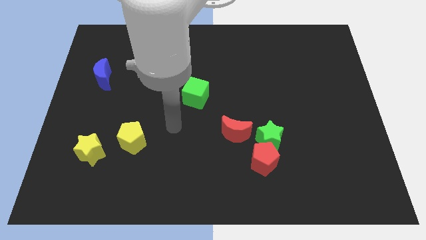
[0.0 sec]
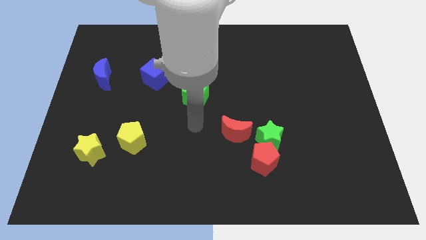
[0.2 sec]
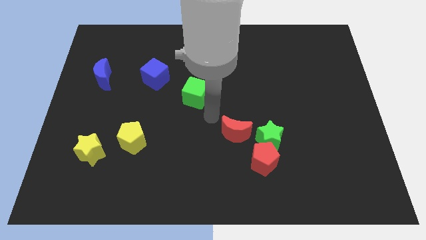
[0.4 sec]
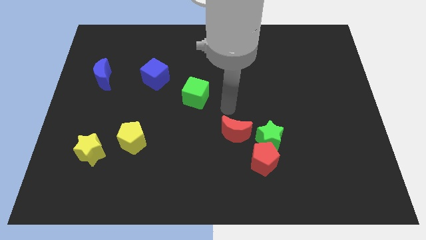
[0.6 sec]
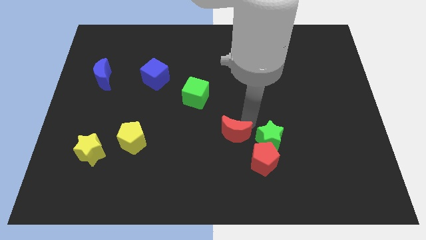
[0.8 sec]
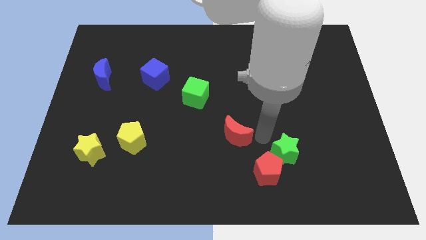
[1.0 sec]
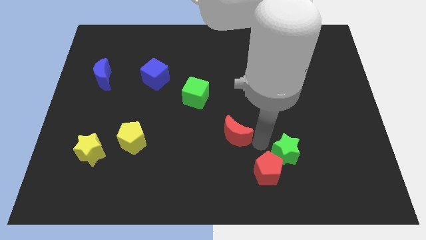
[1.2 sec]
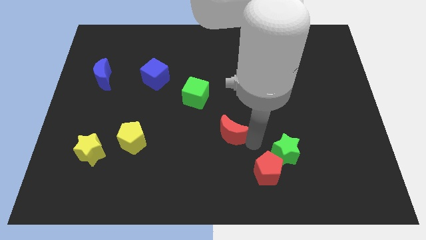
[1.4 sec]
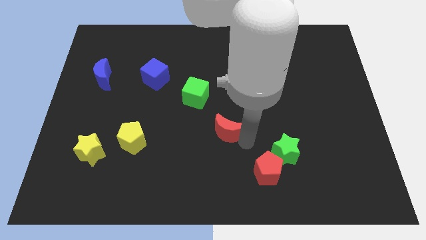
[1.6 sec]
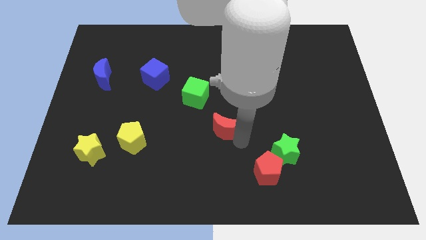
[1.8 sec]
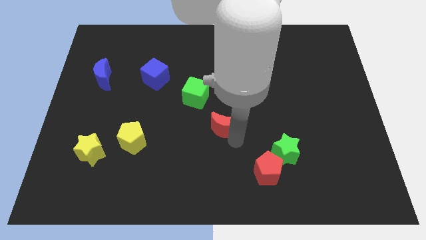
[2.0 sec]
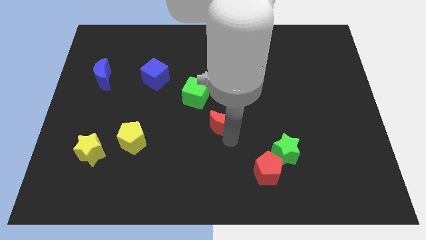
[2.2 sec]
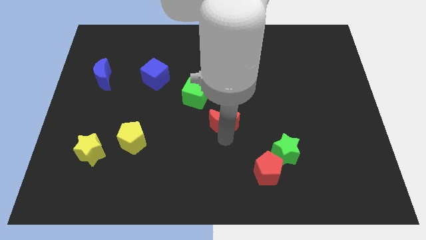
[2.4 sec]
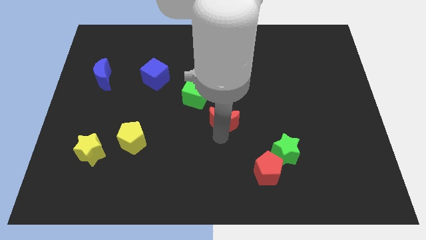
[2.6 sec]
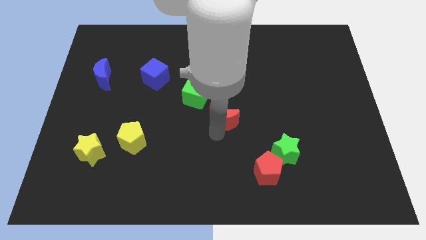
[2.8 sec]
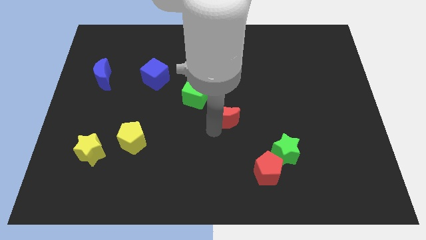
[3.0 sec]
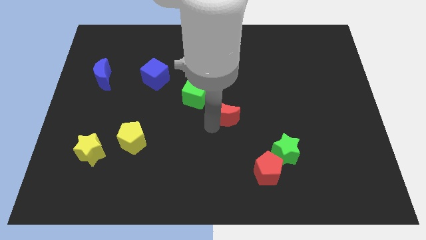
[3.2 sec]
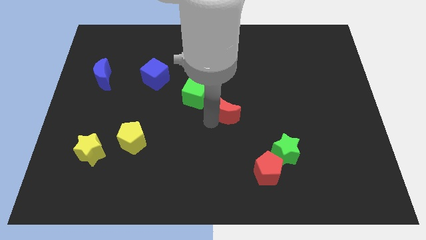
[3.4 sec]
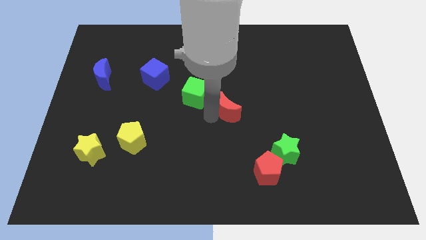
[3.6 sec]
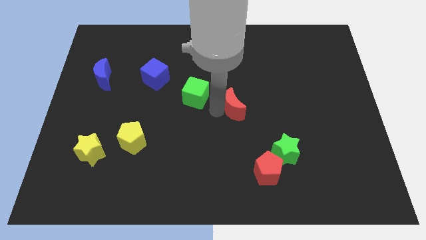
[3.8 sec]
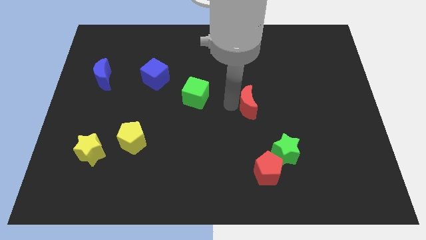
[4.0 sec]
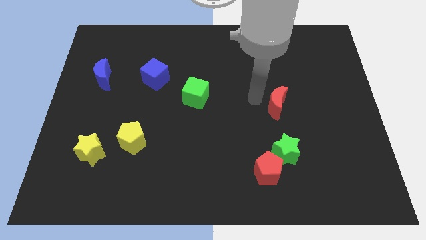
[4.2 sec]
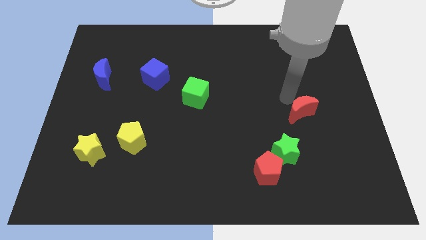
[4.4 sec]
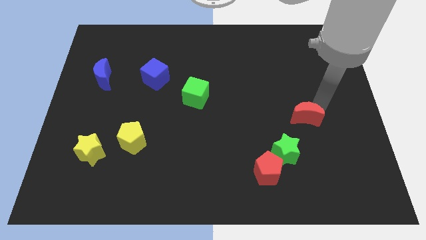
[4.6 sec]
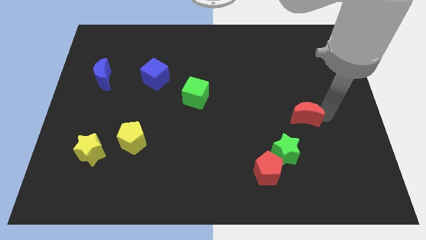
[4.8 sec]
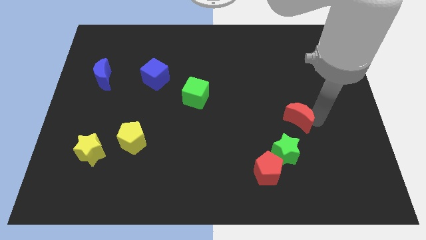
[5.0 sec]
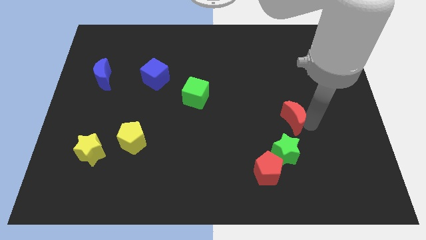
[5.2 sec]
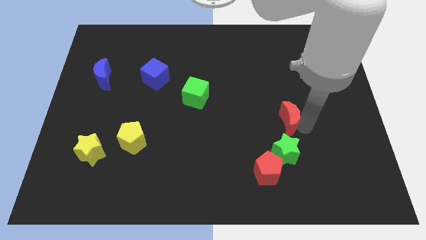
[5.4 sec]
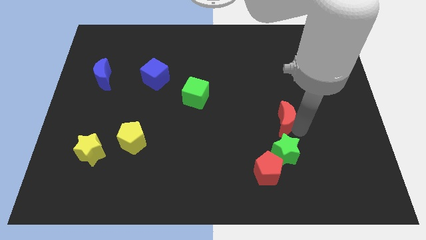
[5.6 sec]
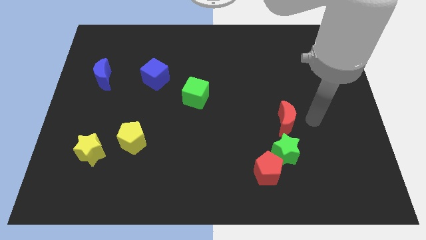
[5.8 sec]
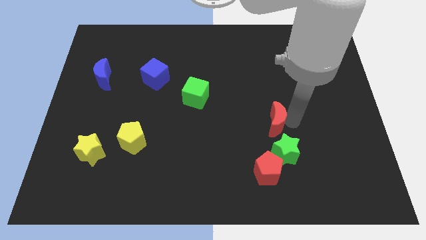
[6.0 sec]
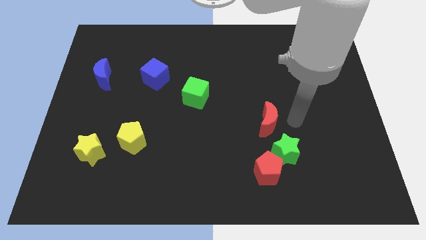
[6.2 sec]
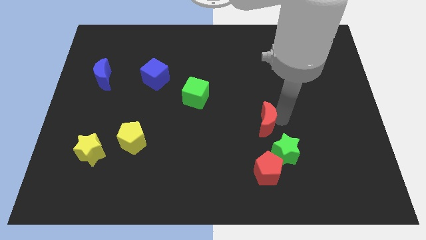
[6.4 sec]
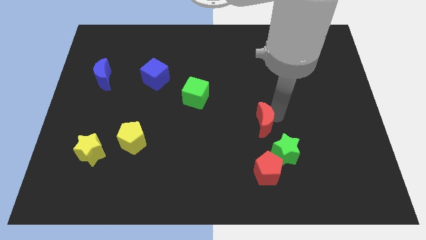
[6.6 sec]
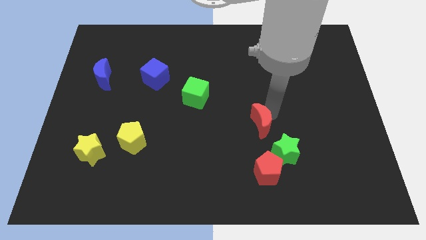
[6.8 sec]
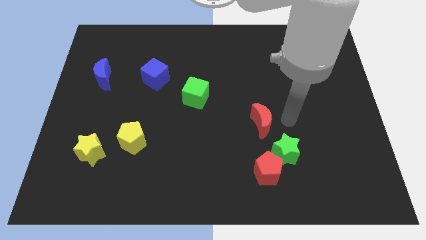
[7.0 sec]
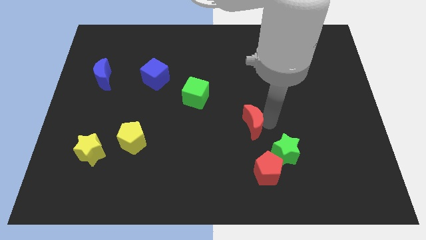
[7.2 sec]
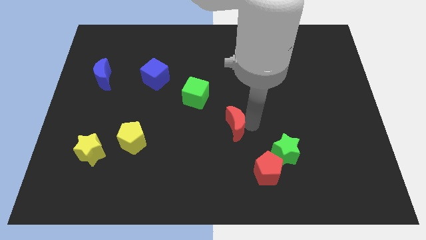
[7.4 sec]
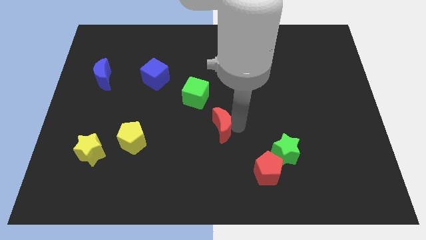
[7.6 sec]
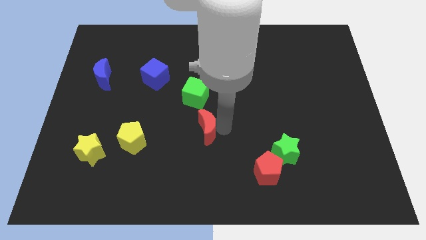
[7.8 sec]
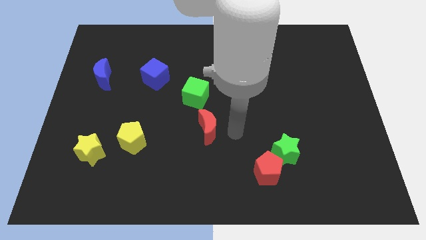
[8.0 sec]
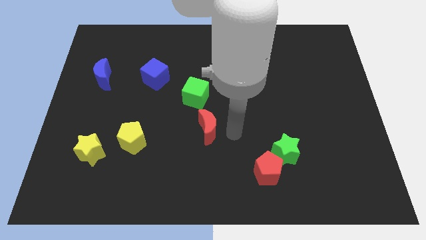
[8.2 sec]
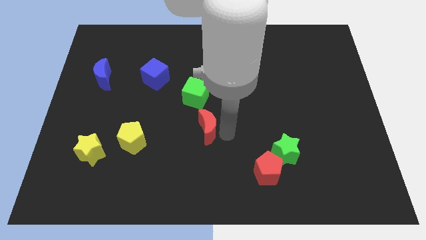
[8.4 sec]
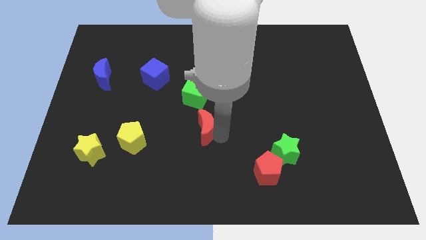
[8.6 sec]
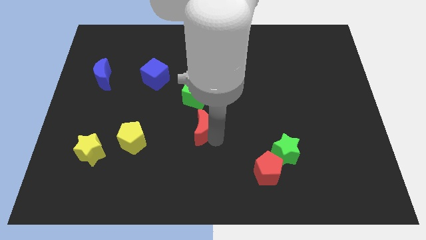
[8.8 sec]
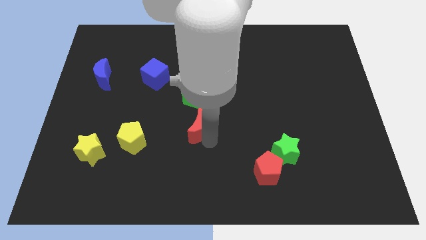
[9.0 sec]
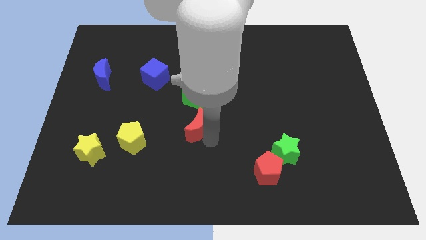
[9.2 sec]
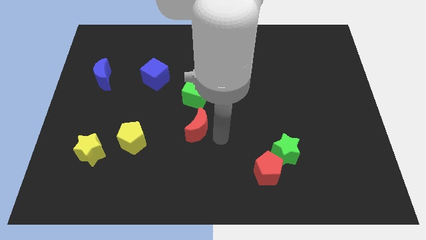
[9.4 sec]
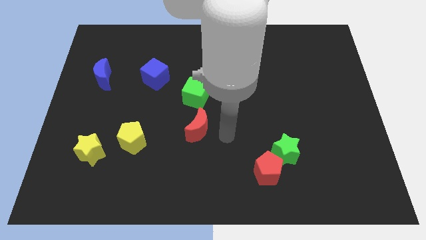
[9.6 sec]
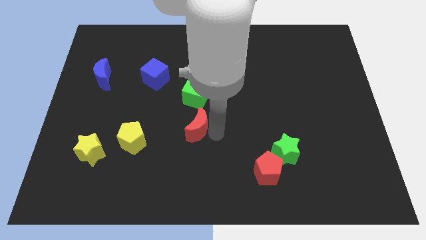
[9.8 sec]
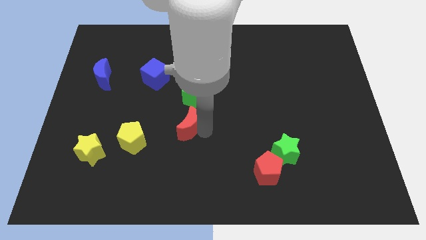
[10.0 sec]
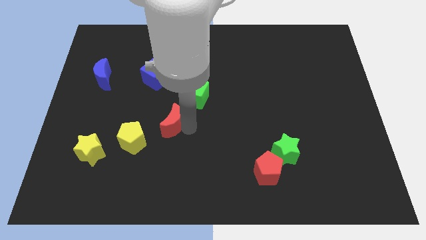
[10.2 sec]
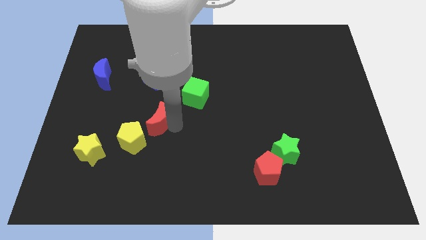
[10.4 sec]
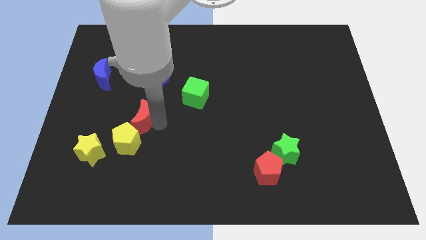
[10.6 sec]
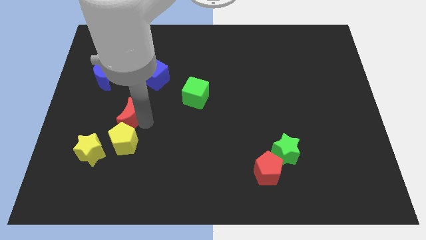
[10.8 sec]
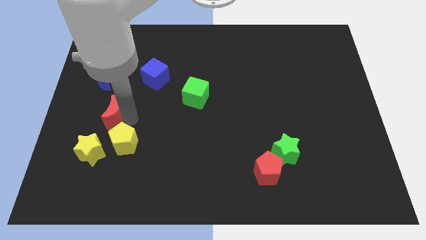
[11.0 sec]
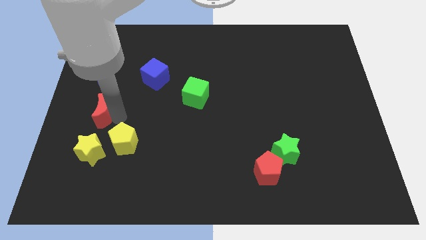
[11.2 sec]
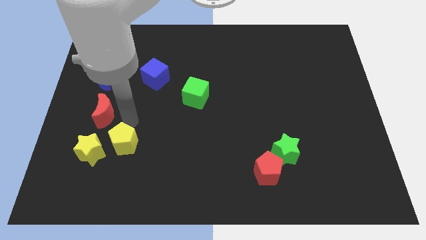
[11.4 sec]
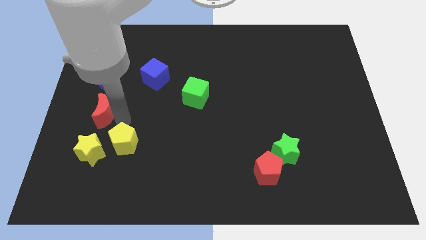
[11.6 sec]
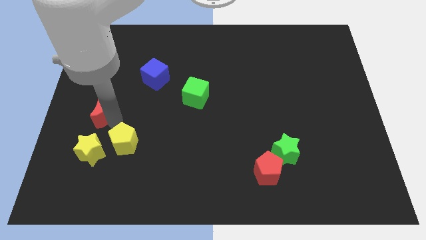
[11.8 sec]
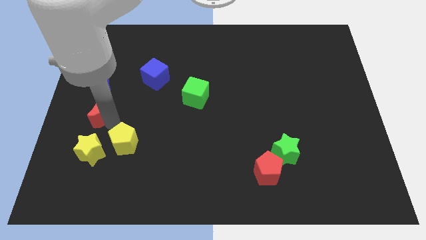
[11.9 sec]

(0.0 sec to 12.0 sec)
move the red moon to the left side
